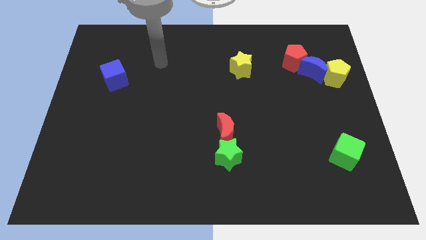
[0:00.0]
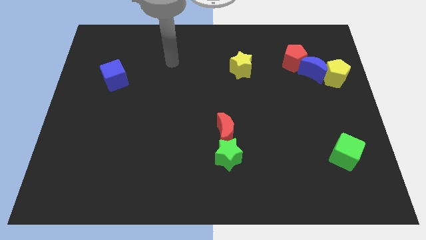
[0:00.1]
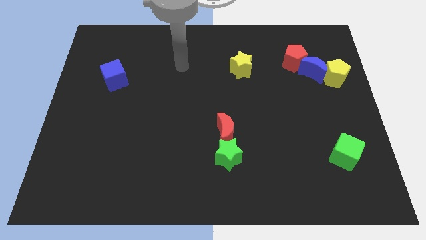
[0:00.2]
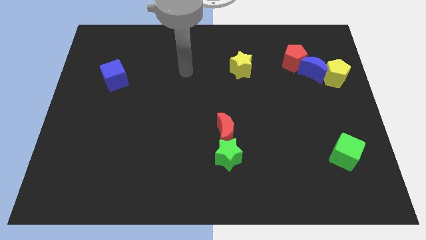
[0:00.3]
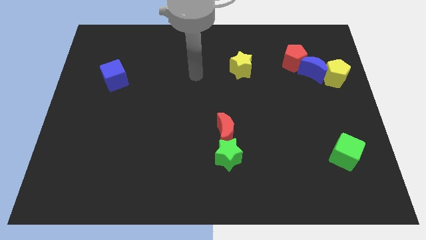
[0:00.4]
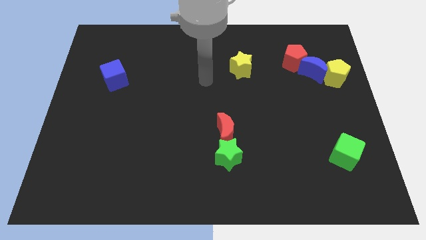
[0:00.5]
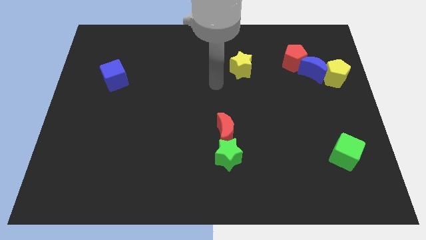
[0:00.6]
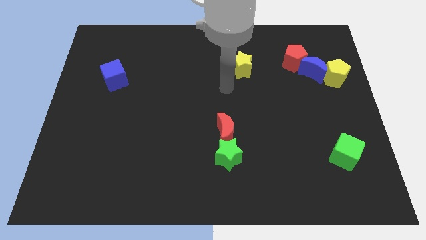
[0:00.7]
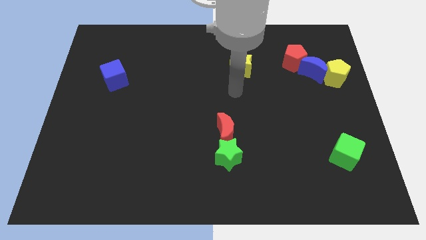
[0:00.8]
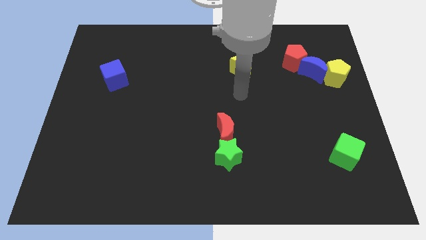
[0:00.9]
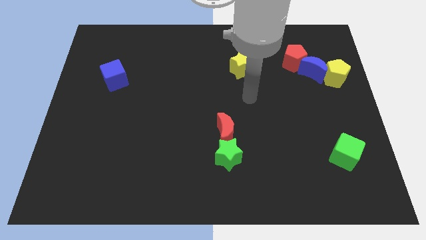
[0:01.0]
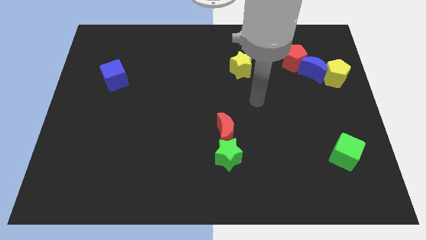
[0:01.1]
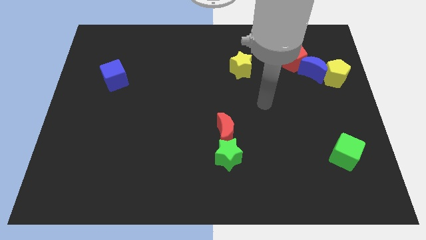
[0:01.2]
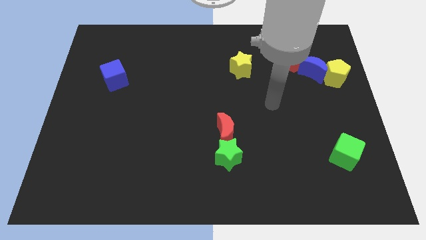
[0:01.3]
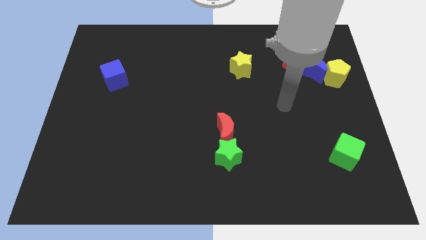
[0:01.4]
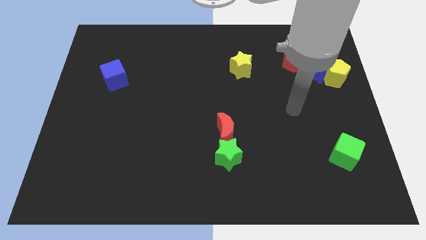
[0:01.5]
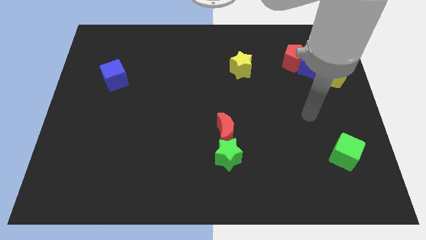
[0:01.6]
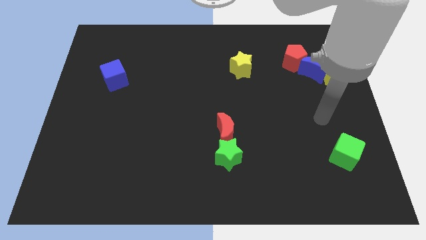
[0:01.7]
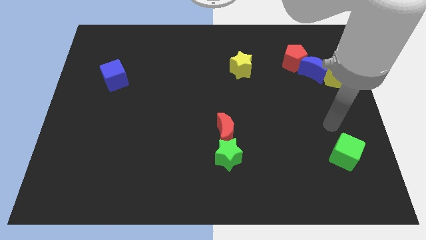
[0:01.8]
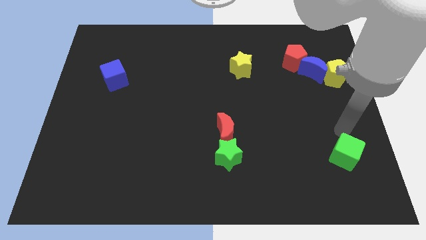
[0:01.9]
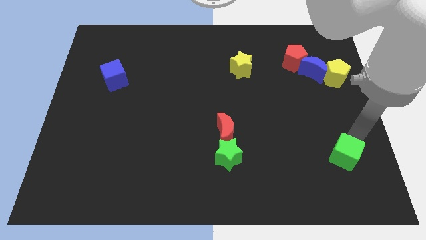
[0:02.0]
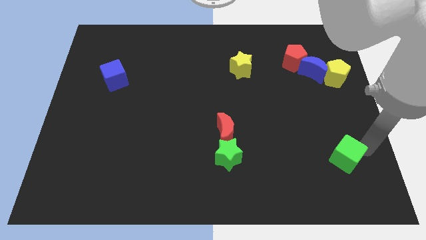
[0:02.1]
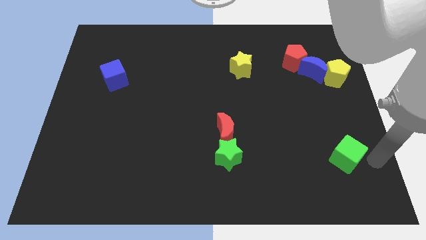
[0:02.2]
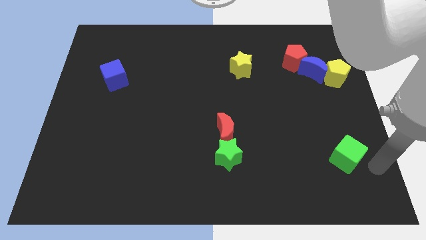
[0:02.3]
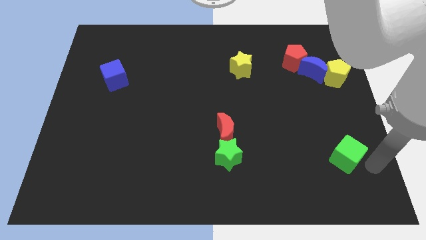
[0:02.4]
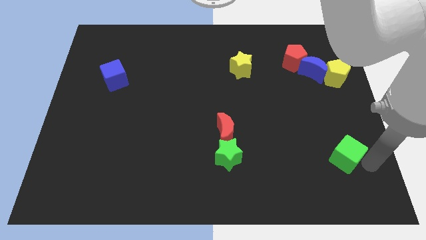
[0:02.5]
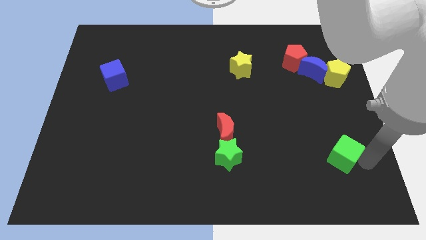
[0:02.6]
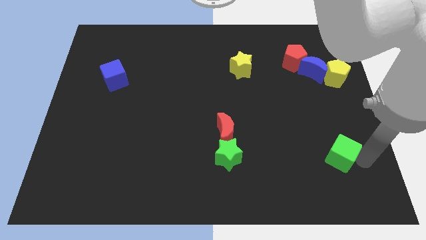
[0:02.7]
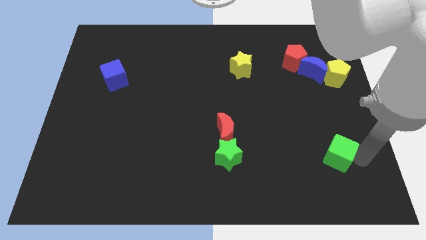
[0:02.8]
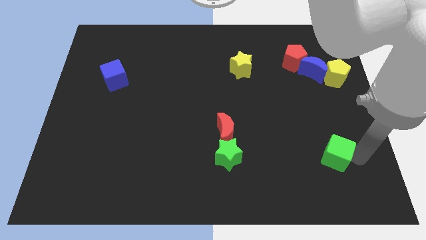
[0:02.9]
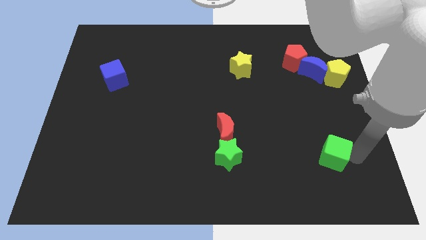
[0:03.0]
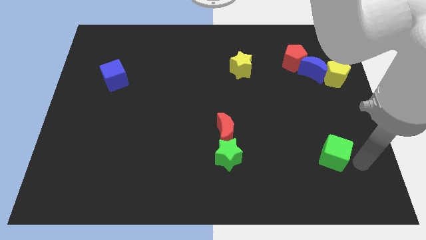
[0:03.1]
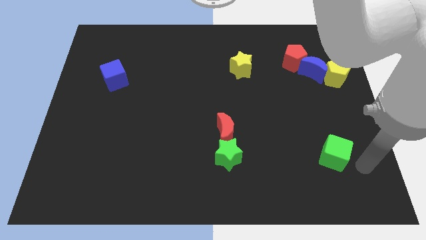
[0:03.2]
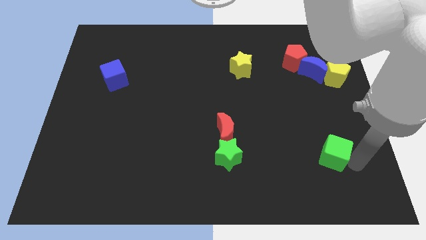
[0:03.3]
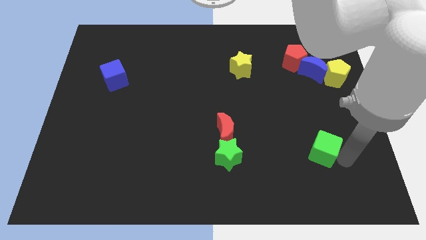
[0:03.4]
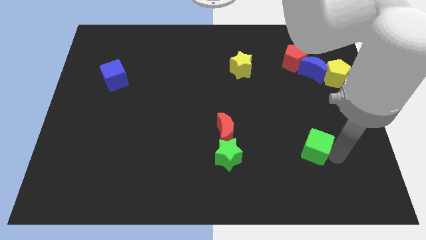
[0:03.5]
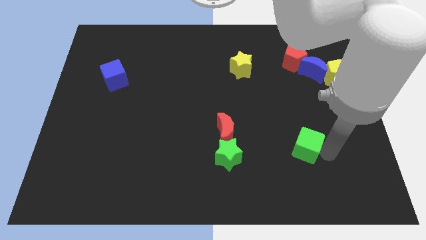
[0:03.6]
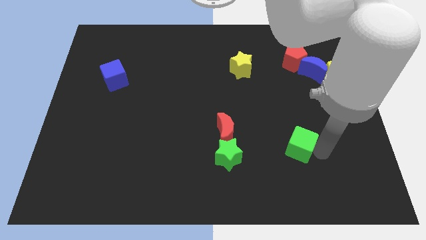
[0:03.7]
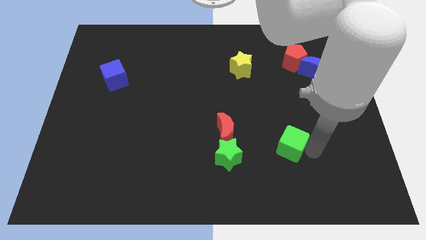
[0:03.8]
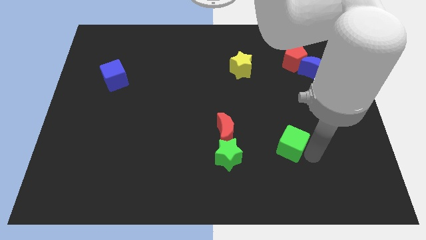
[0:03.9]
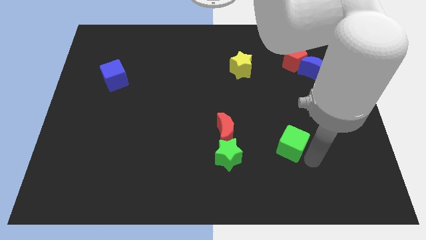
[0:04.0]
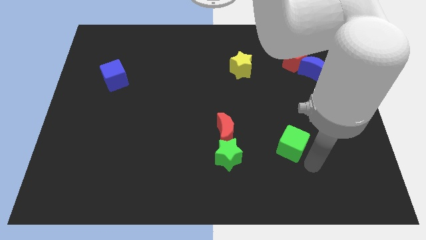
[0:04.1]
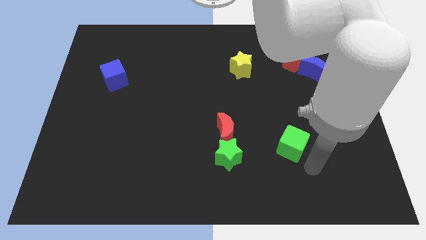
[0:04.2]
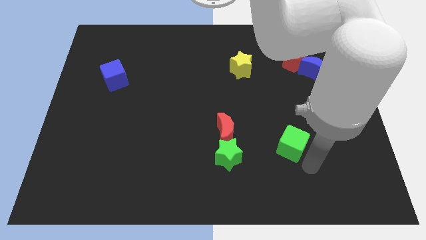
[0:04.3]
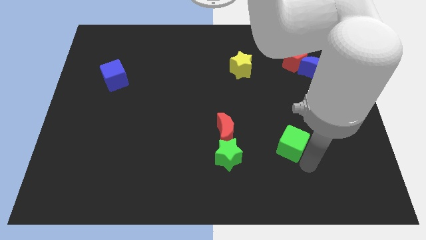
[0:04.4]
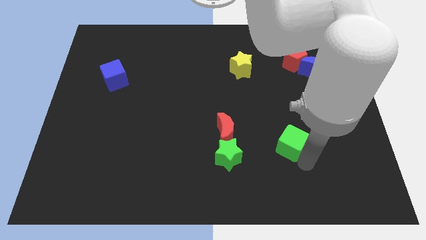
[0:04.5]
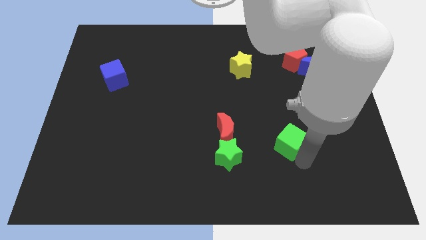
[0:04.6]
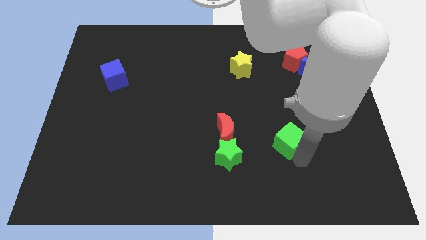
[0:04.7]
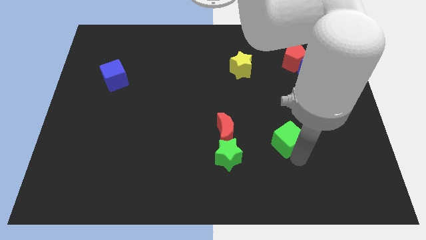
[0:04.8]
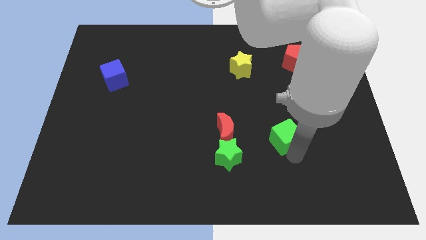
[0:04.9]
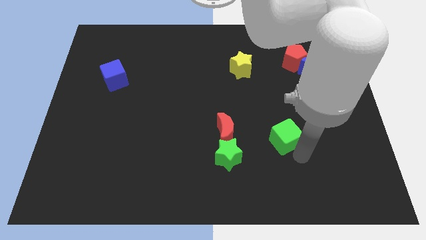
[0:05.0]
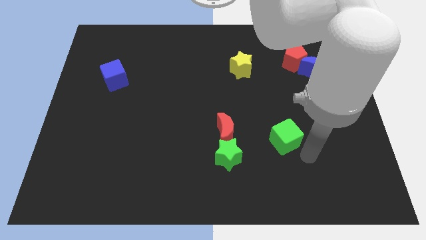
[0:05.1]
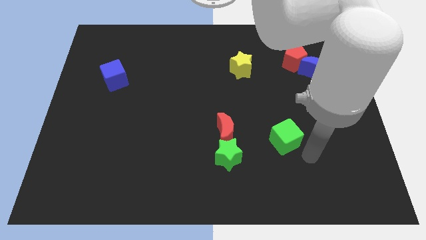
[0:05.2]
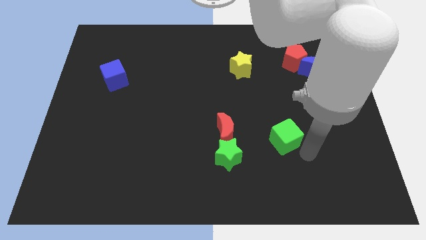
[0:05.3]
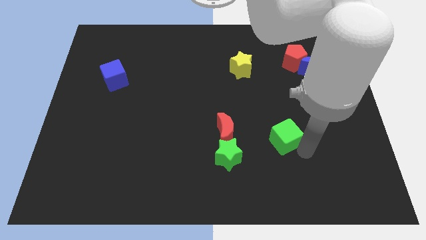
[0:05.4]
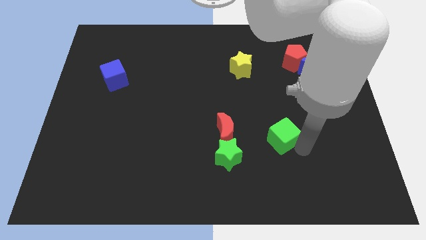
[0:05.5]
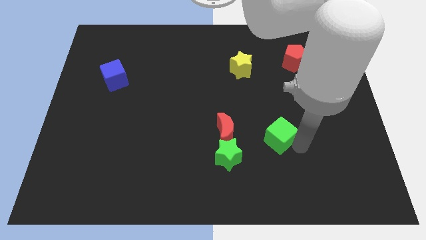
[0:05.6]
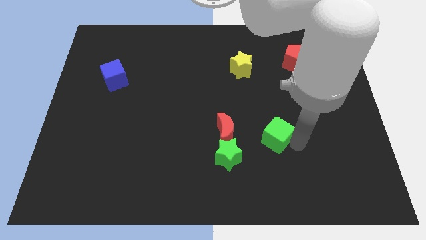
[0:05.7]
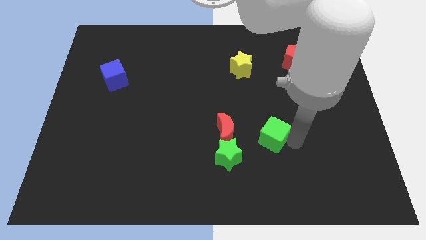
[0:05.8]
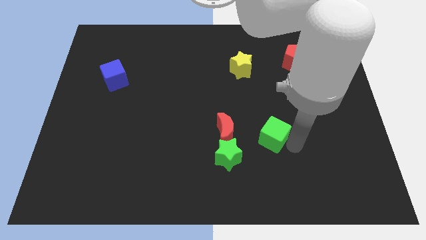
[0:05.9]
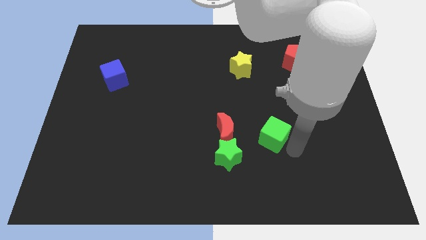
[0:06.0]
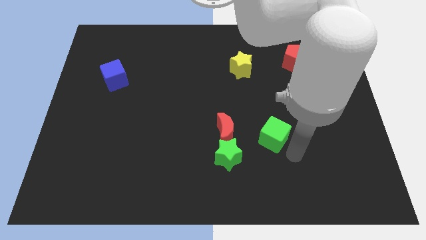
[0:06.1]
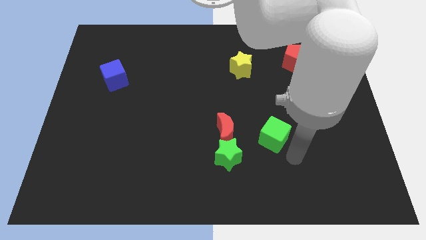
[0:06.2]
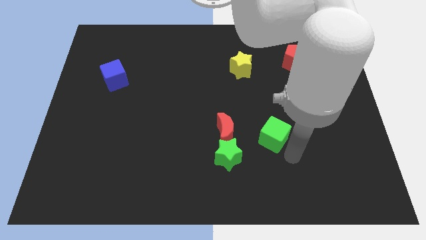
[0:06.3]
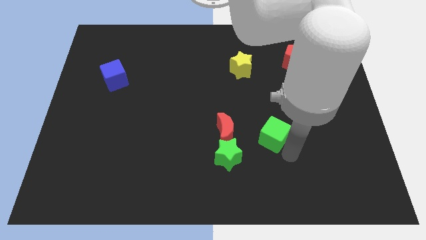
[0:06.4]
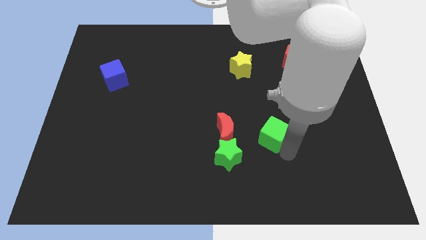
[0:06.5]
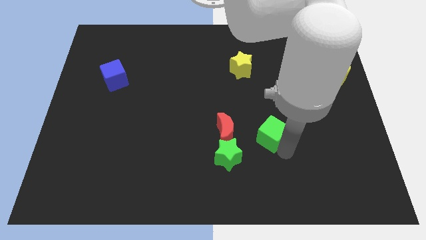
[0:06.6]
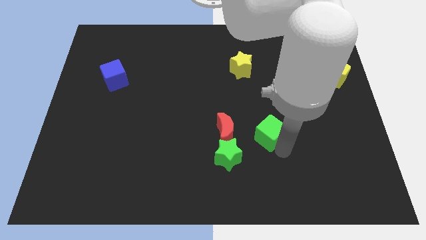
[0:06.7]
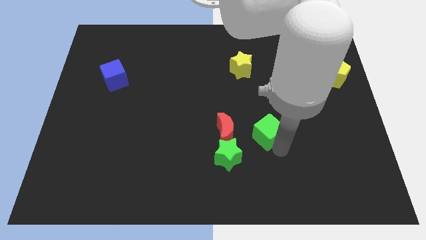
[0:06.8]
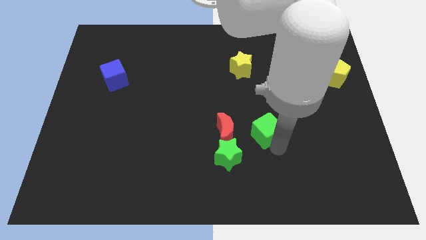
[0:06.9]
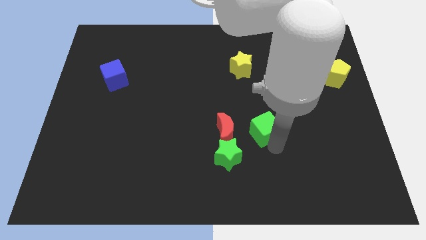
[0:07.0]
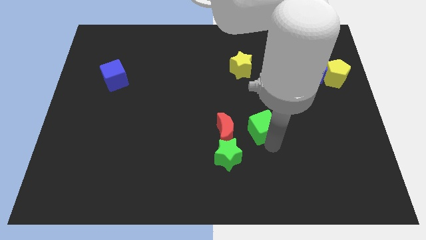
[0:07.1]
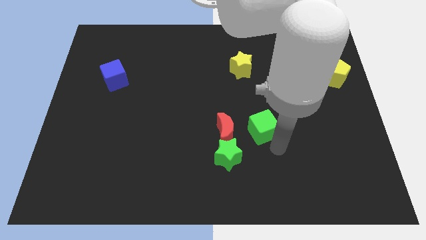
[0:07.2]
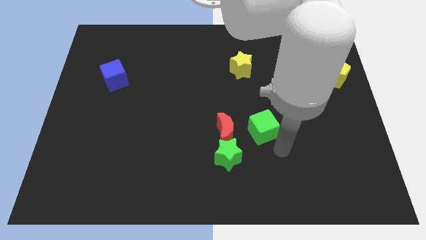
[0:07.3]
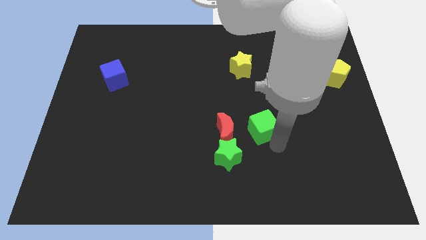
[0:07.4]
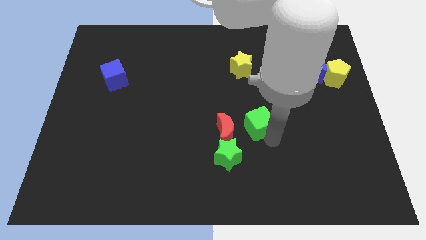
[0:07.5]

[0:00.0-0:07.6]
put the green cube to the top right of the red moon
